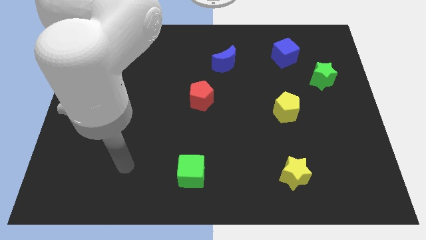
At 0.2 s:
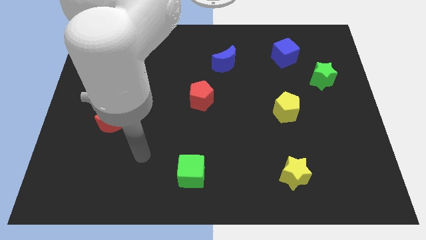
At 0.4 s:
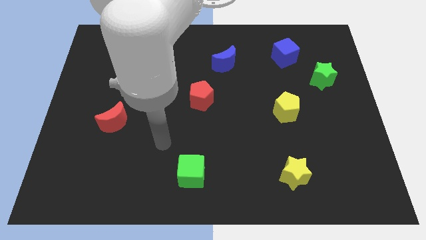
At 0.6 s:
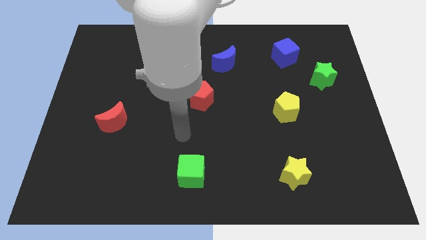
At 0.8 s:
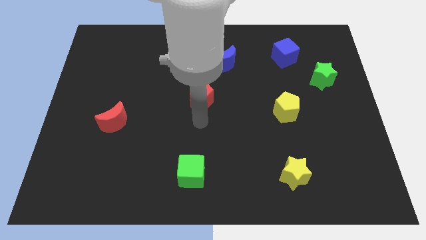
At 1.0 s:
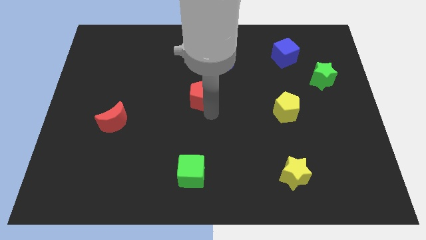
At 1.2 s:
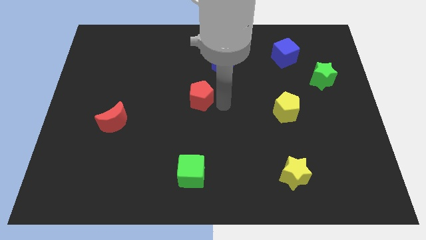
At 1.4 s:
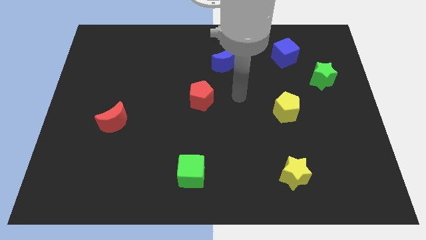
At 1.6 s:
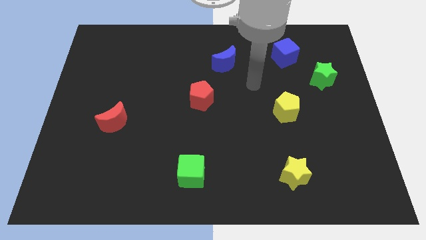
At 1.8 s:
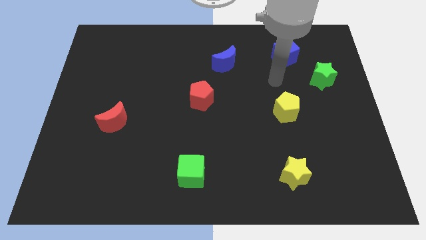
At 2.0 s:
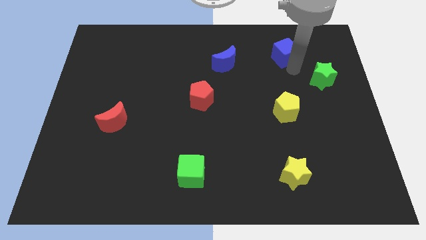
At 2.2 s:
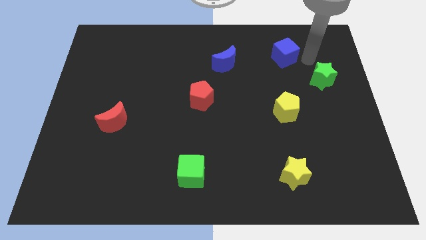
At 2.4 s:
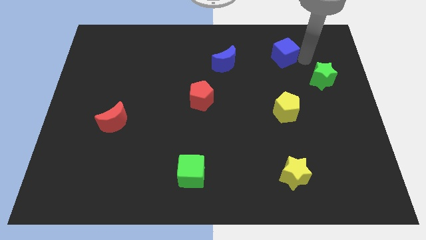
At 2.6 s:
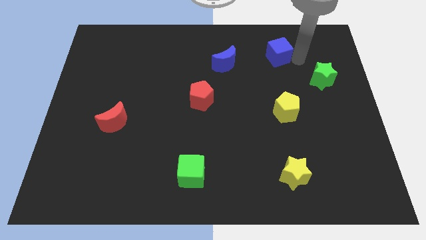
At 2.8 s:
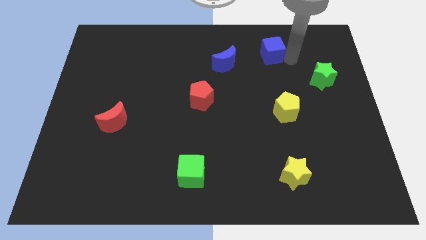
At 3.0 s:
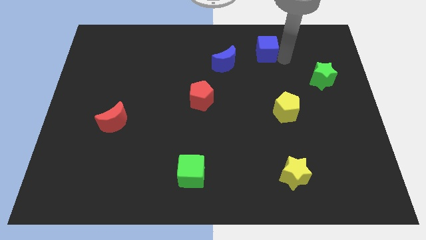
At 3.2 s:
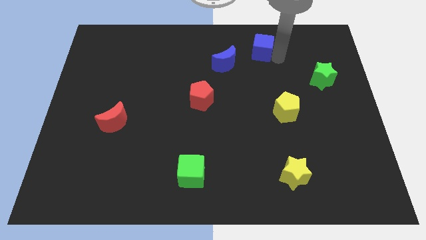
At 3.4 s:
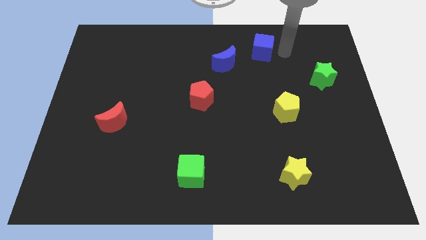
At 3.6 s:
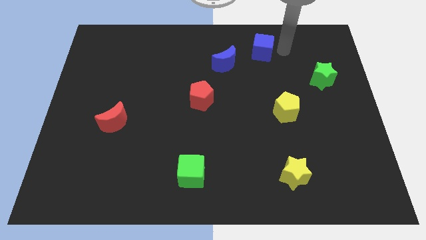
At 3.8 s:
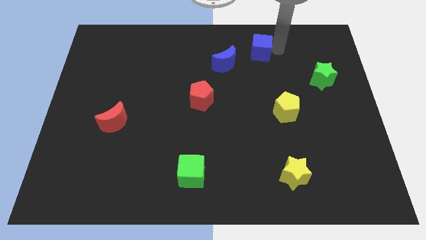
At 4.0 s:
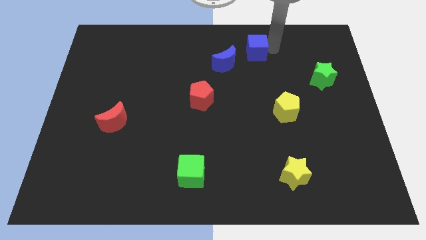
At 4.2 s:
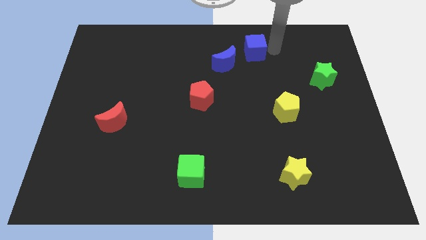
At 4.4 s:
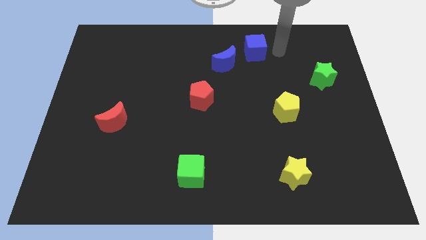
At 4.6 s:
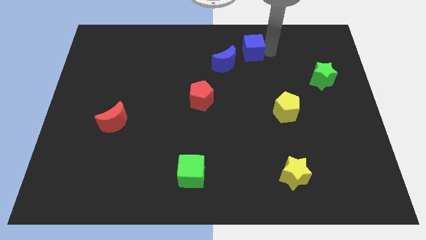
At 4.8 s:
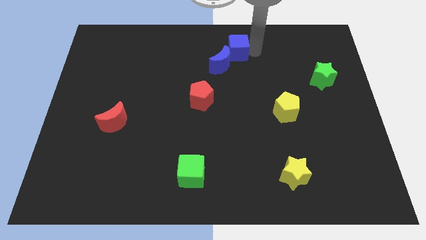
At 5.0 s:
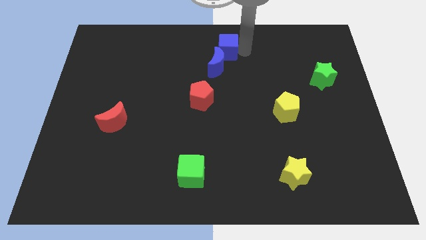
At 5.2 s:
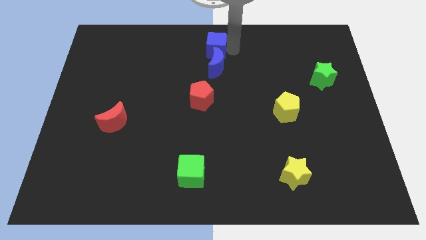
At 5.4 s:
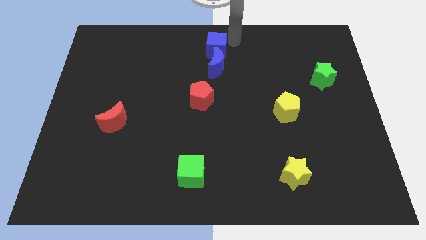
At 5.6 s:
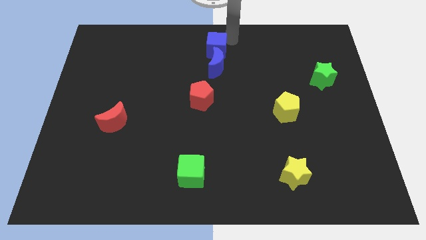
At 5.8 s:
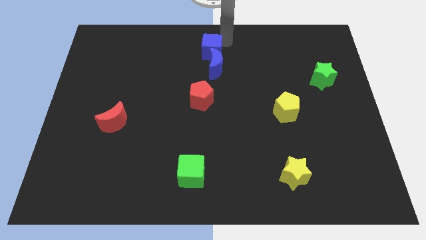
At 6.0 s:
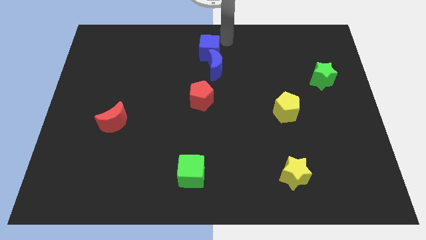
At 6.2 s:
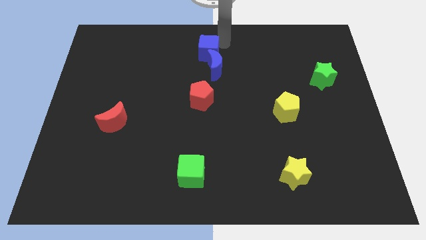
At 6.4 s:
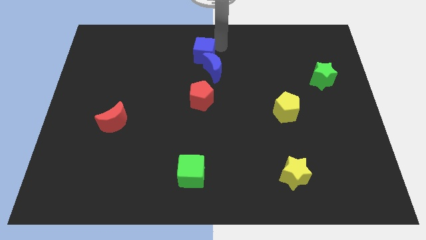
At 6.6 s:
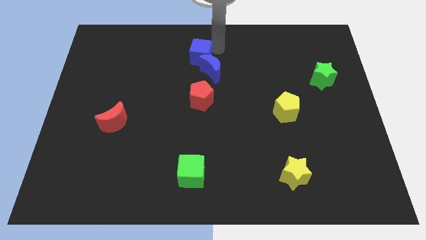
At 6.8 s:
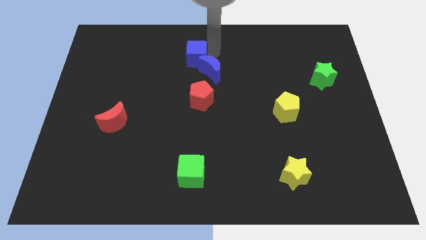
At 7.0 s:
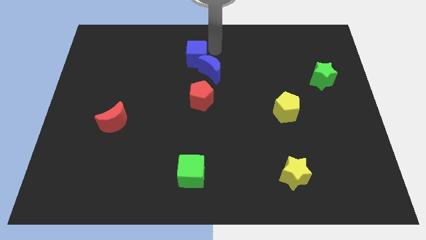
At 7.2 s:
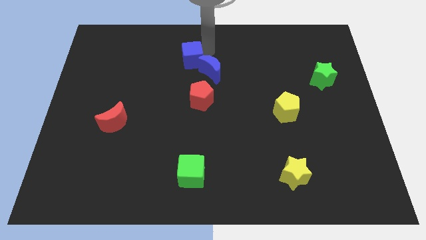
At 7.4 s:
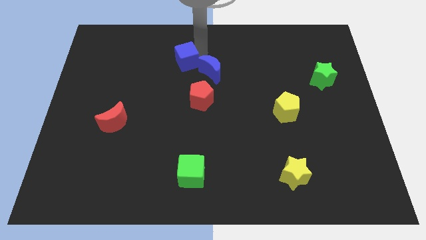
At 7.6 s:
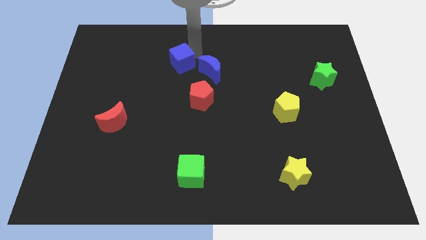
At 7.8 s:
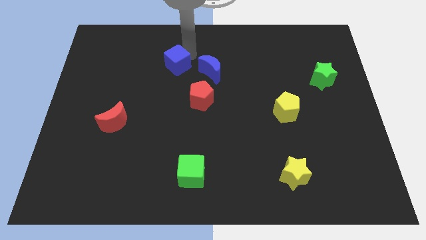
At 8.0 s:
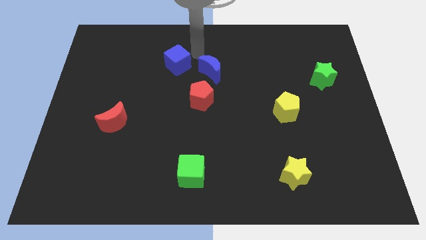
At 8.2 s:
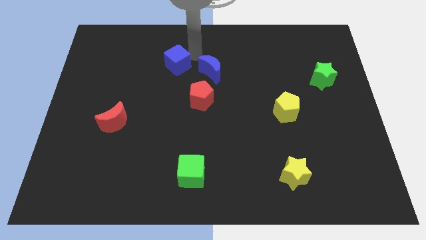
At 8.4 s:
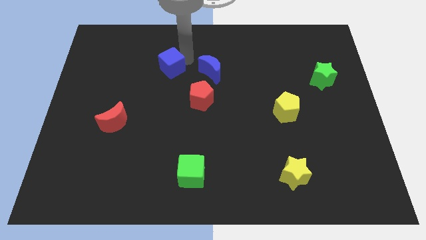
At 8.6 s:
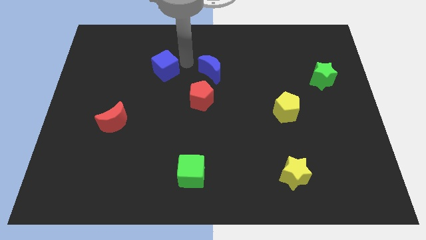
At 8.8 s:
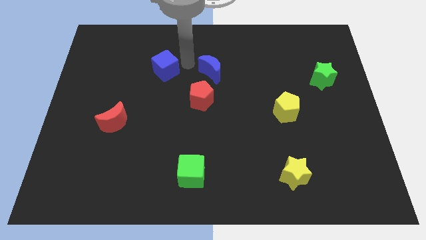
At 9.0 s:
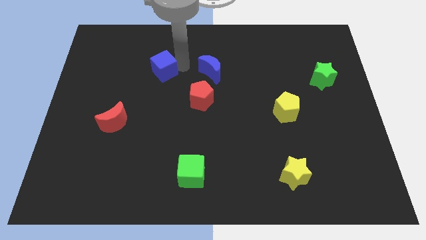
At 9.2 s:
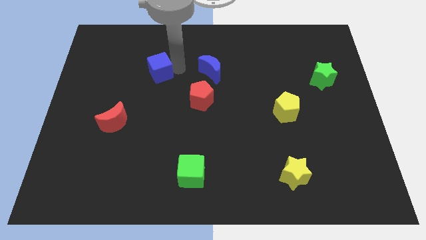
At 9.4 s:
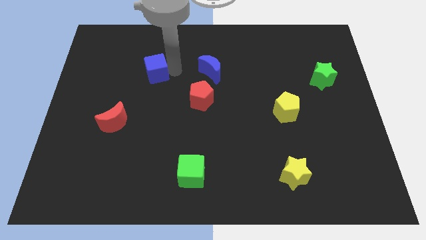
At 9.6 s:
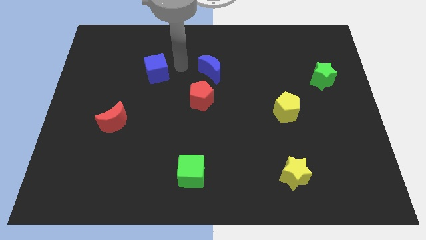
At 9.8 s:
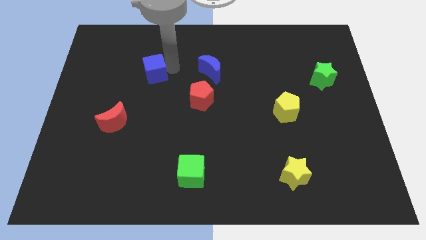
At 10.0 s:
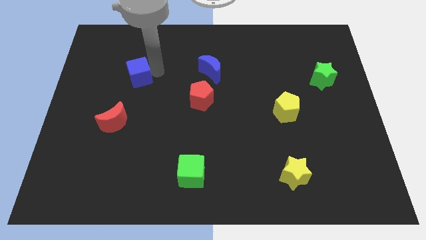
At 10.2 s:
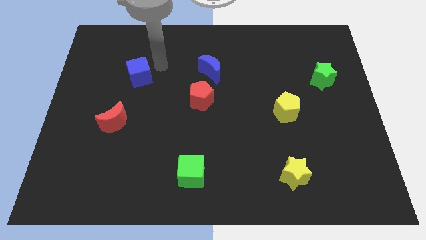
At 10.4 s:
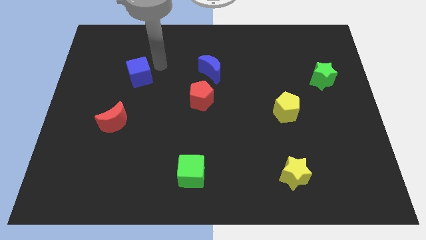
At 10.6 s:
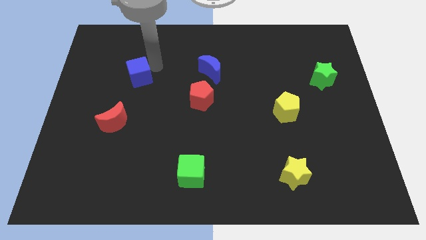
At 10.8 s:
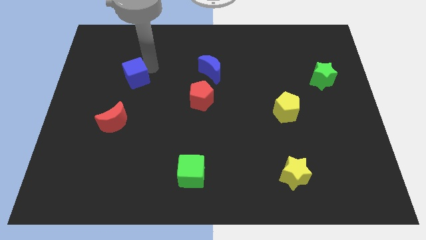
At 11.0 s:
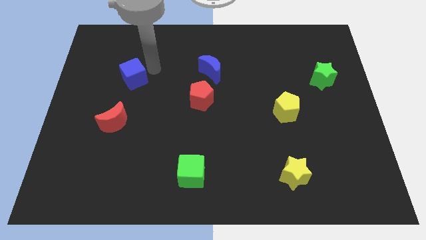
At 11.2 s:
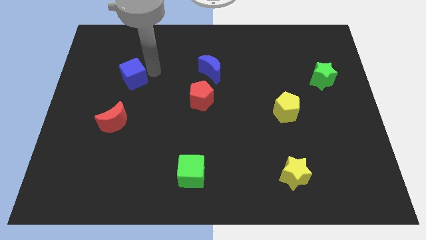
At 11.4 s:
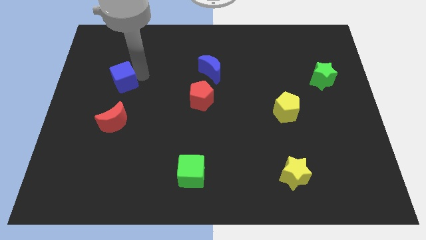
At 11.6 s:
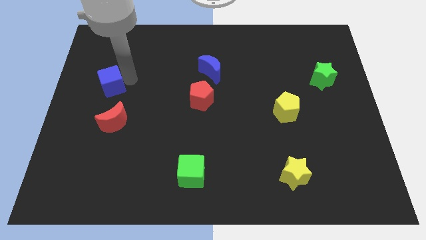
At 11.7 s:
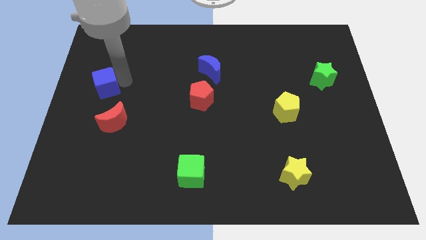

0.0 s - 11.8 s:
move the blue cube to the center left
